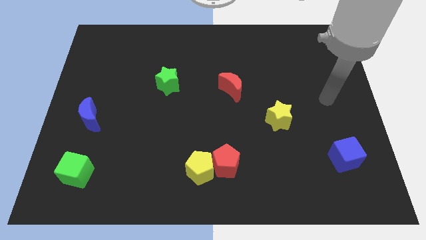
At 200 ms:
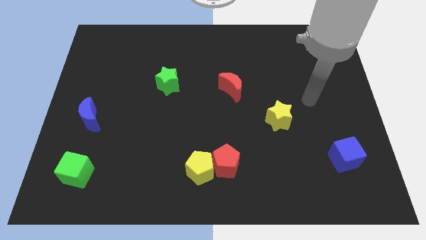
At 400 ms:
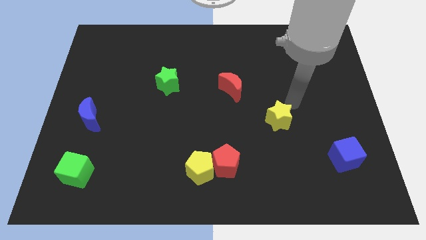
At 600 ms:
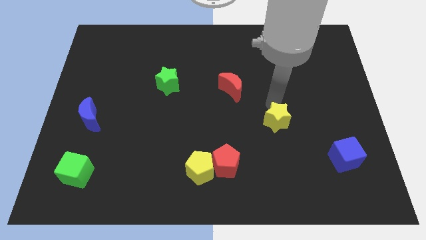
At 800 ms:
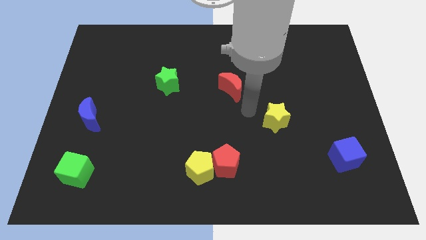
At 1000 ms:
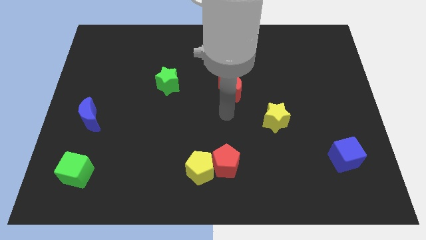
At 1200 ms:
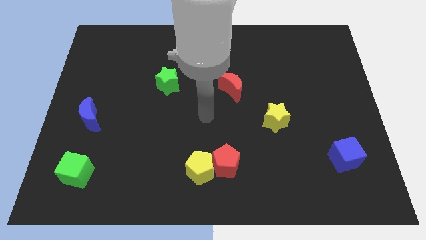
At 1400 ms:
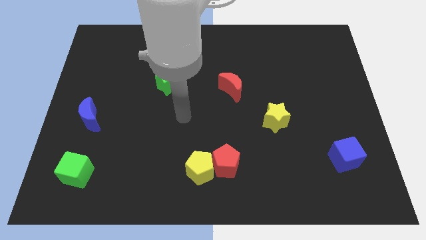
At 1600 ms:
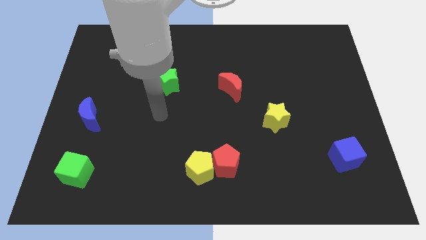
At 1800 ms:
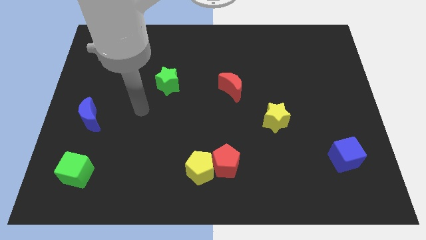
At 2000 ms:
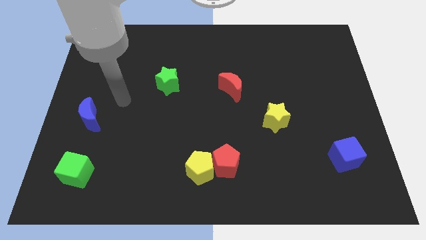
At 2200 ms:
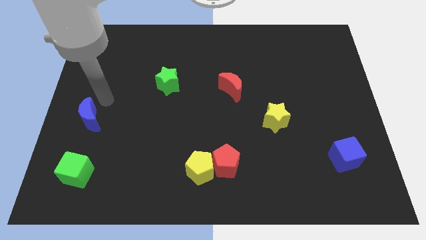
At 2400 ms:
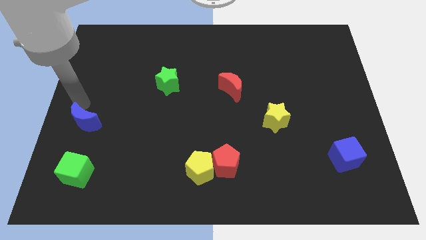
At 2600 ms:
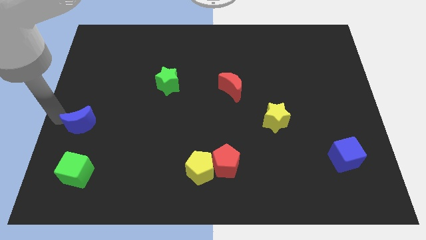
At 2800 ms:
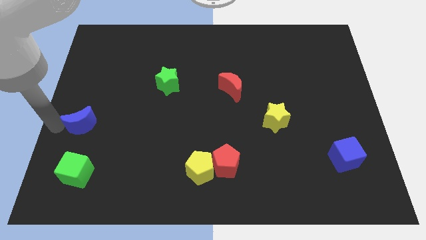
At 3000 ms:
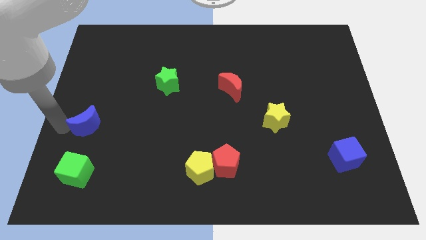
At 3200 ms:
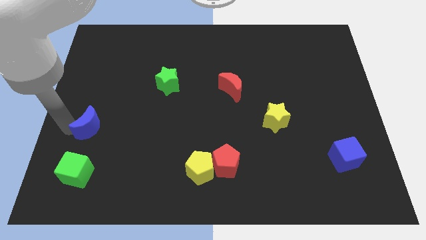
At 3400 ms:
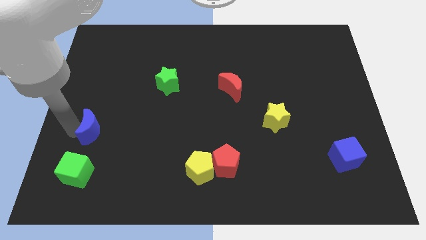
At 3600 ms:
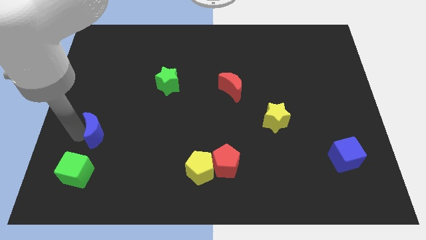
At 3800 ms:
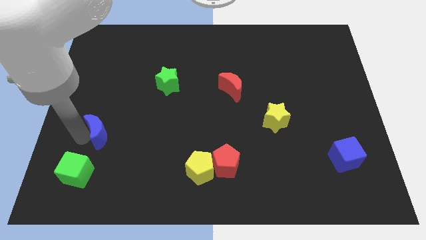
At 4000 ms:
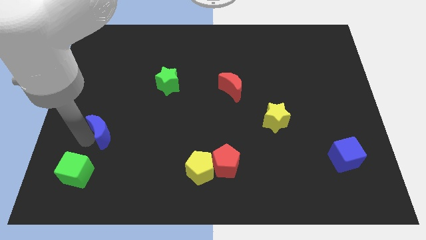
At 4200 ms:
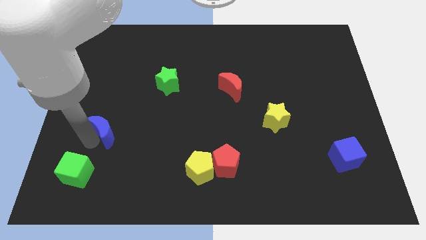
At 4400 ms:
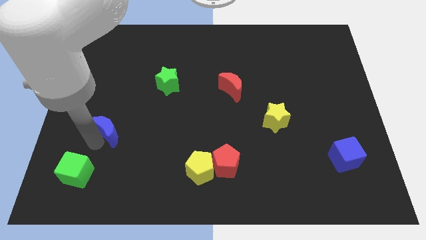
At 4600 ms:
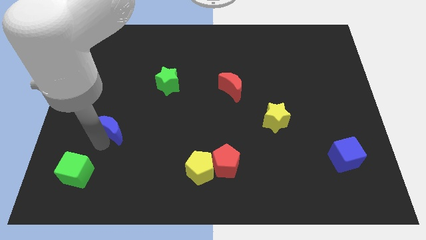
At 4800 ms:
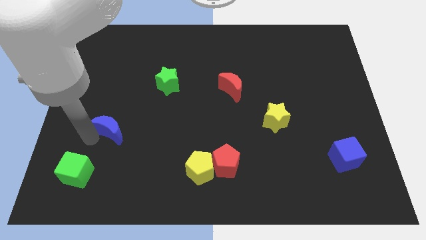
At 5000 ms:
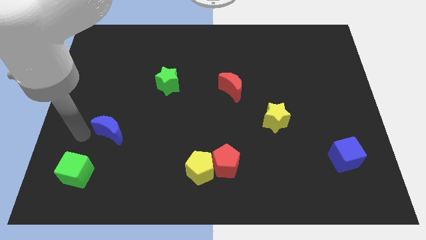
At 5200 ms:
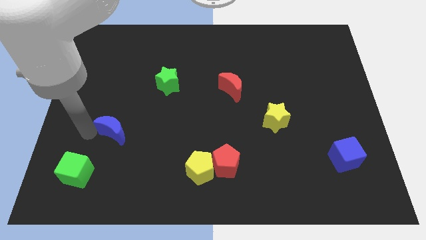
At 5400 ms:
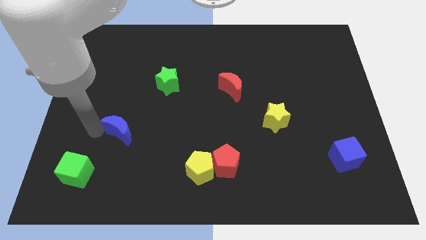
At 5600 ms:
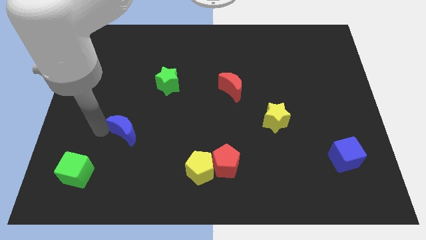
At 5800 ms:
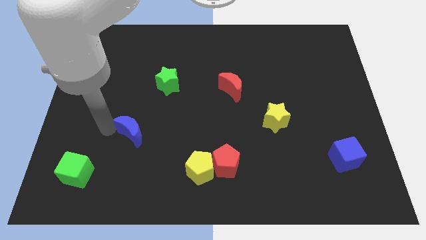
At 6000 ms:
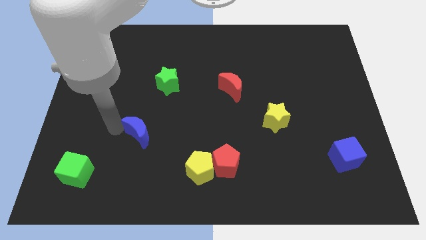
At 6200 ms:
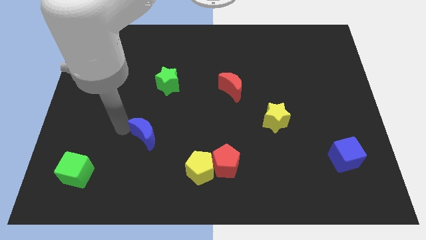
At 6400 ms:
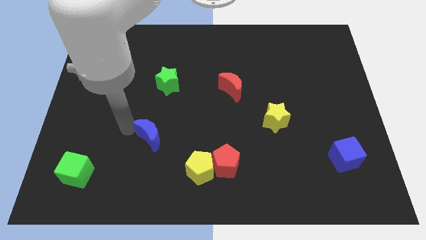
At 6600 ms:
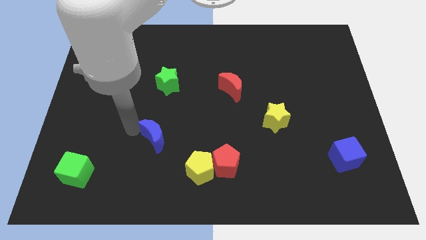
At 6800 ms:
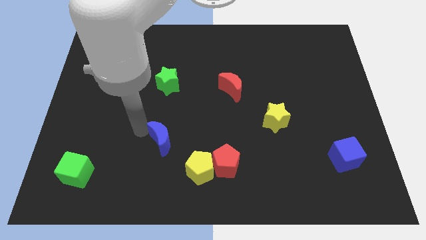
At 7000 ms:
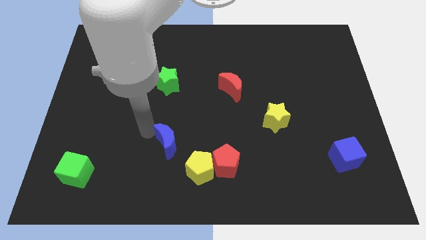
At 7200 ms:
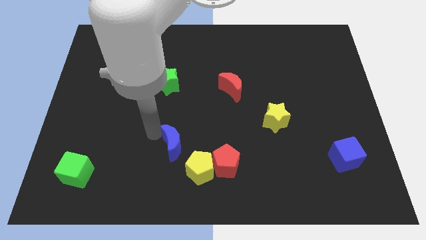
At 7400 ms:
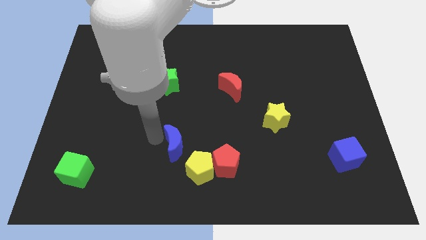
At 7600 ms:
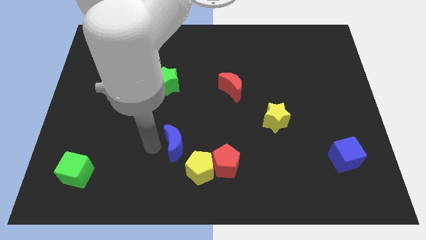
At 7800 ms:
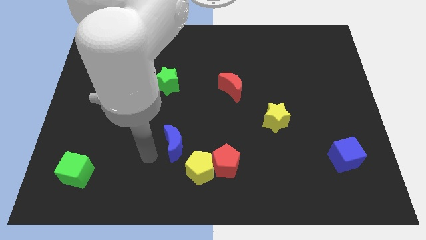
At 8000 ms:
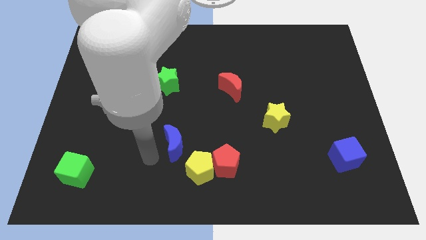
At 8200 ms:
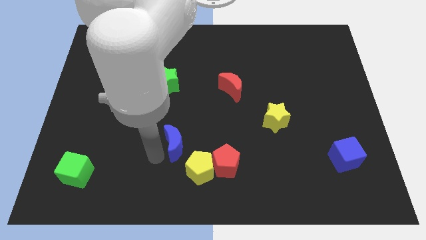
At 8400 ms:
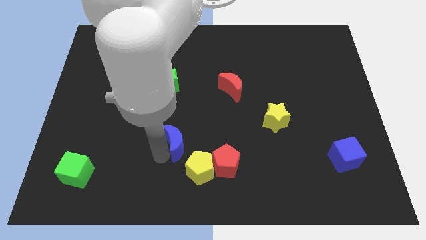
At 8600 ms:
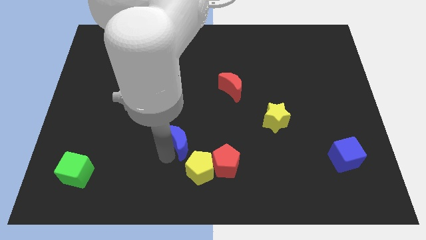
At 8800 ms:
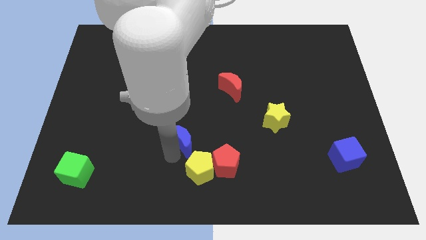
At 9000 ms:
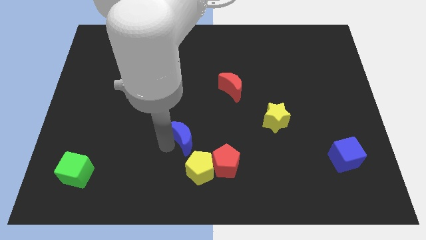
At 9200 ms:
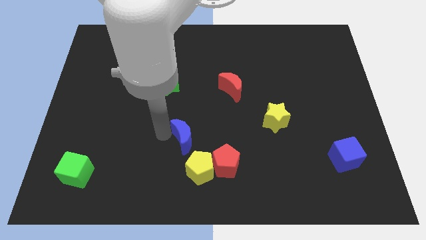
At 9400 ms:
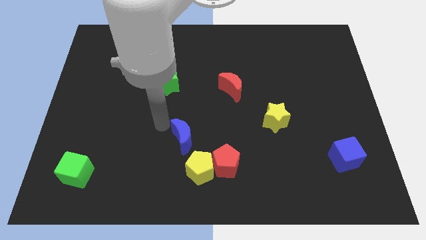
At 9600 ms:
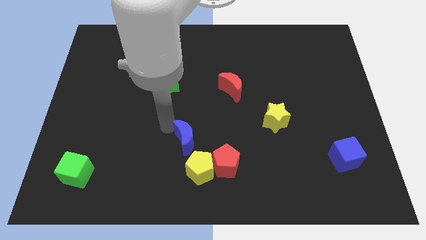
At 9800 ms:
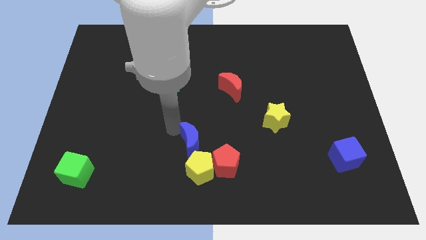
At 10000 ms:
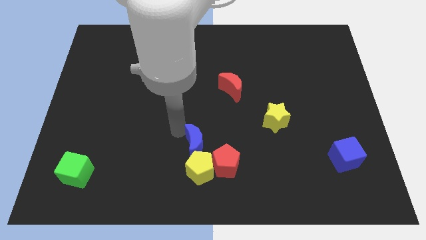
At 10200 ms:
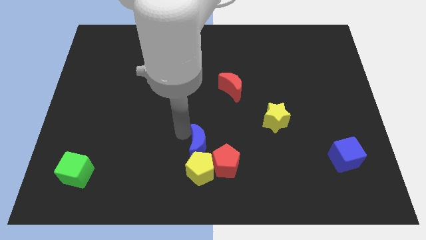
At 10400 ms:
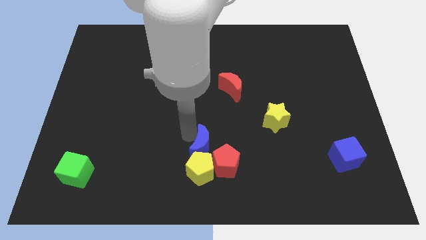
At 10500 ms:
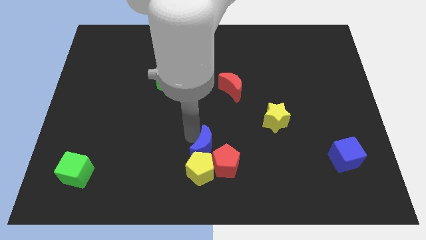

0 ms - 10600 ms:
put the blue moon close to the red pentagon

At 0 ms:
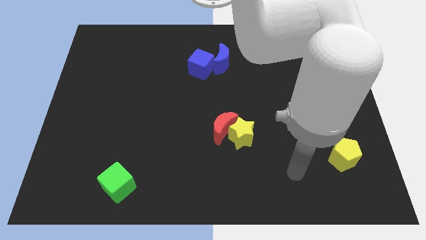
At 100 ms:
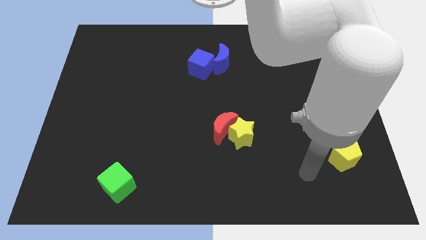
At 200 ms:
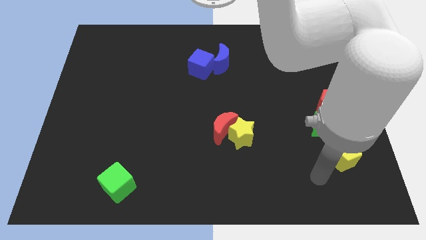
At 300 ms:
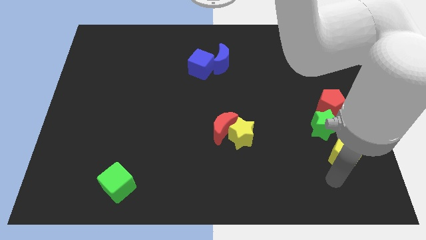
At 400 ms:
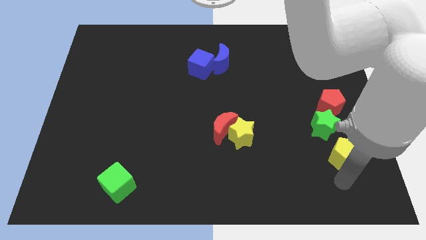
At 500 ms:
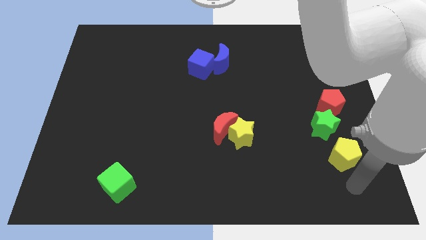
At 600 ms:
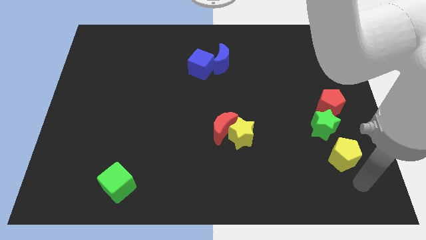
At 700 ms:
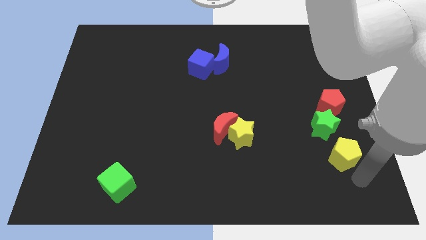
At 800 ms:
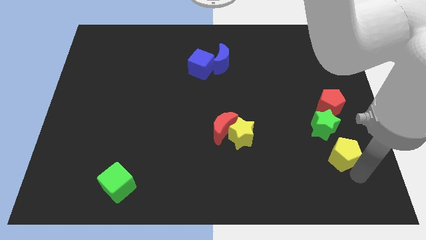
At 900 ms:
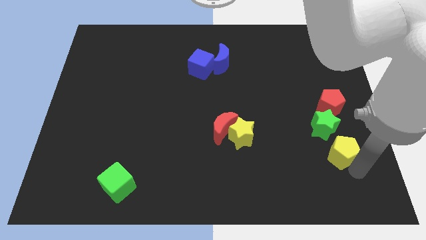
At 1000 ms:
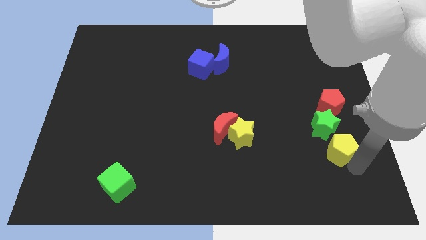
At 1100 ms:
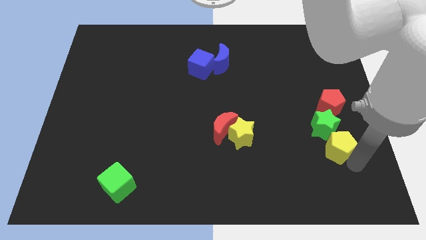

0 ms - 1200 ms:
move the yellow pentagon close to the green star

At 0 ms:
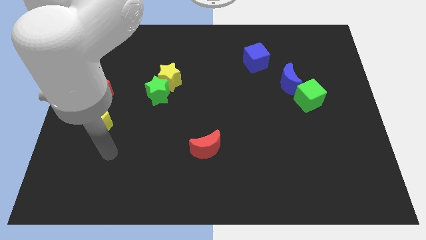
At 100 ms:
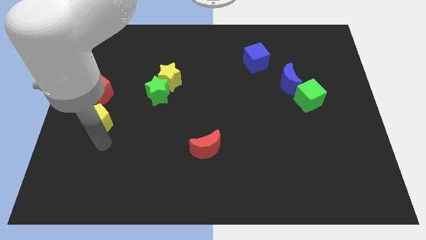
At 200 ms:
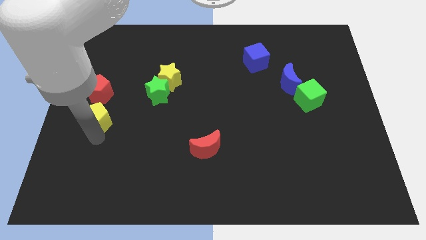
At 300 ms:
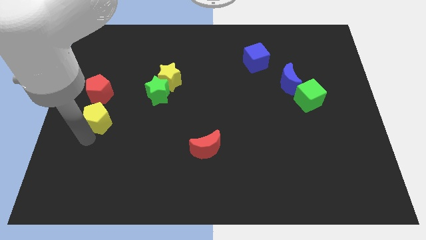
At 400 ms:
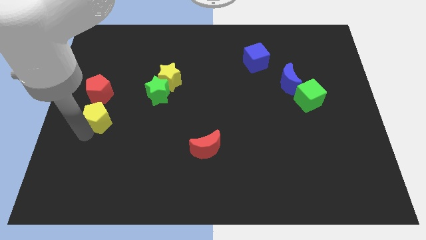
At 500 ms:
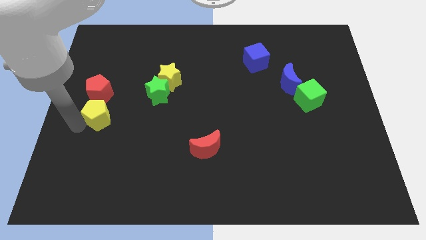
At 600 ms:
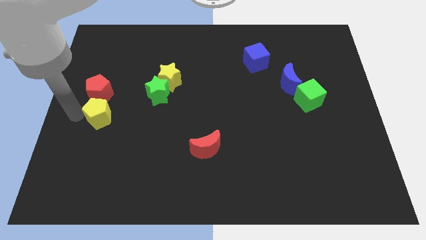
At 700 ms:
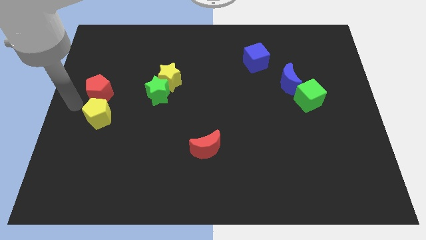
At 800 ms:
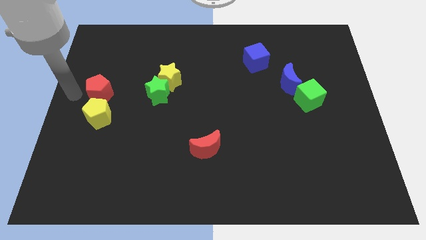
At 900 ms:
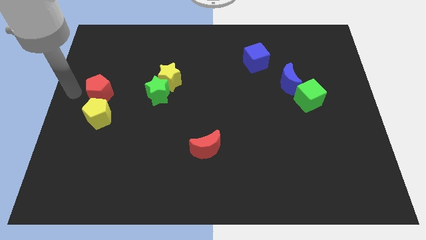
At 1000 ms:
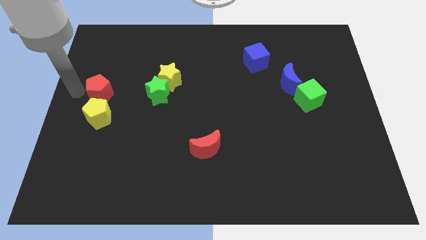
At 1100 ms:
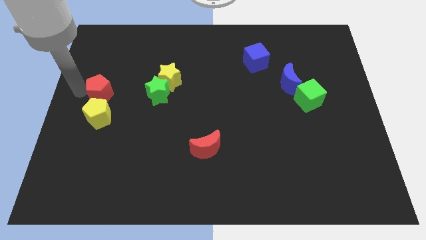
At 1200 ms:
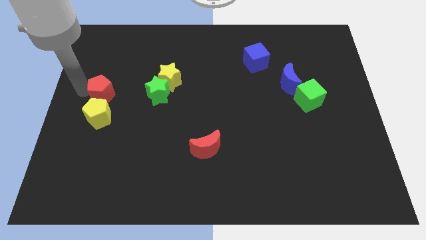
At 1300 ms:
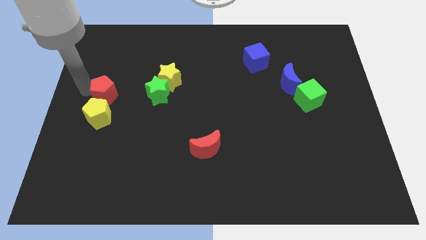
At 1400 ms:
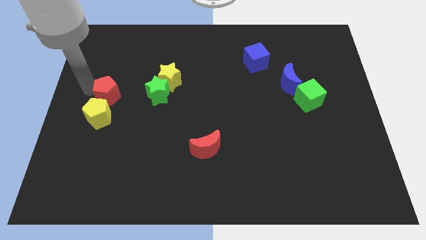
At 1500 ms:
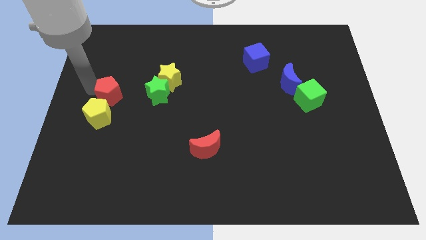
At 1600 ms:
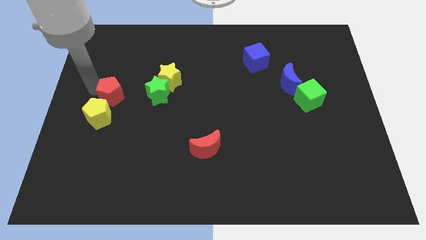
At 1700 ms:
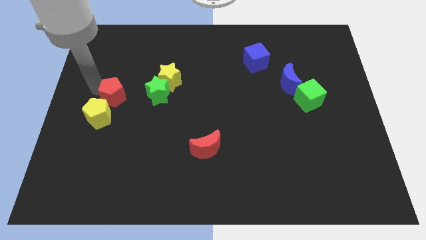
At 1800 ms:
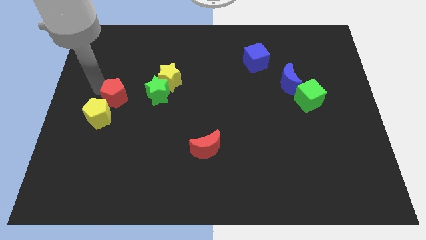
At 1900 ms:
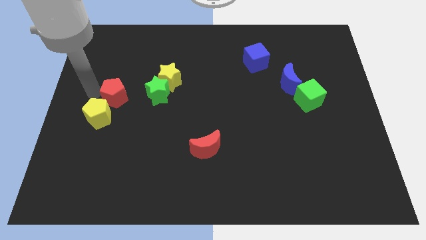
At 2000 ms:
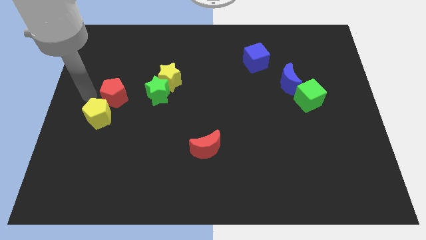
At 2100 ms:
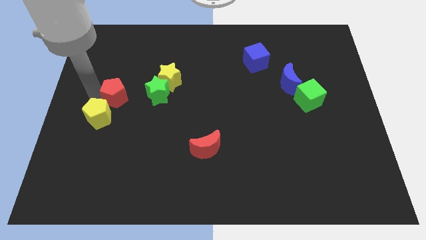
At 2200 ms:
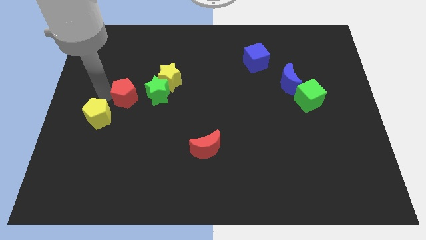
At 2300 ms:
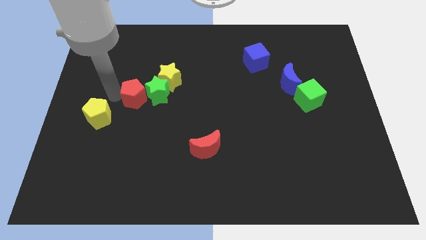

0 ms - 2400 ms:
move the red pentagon next to the green star
